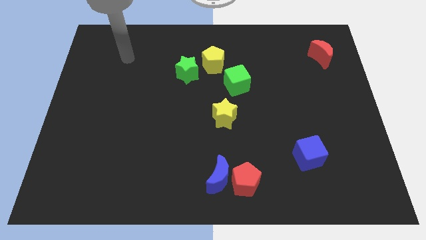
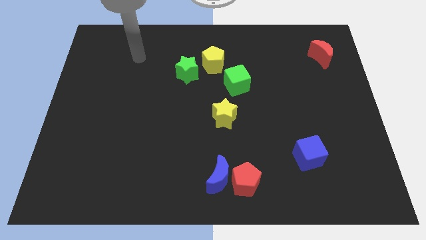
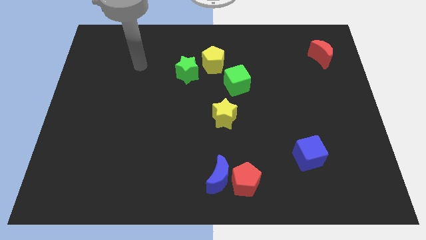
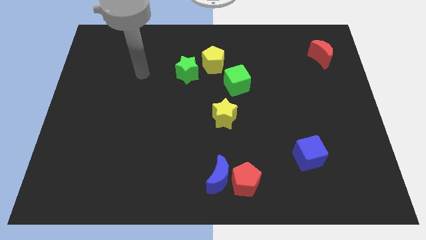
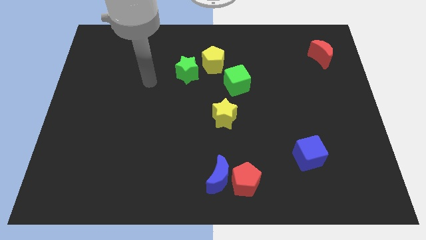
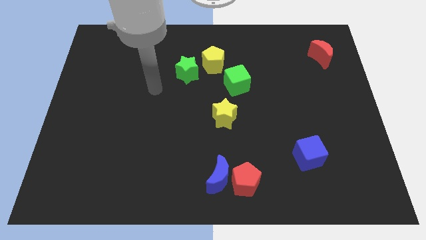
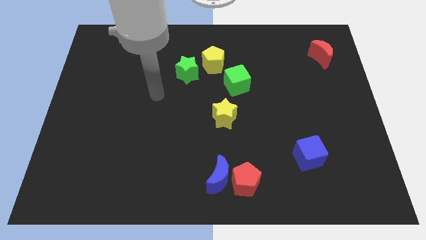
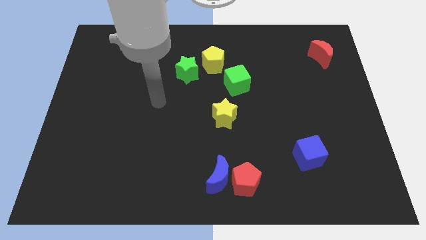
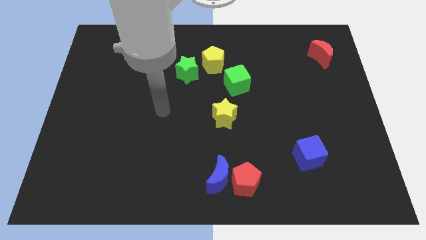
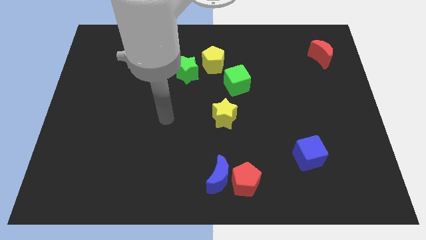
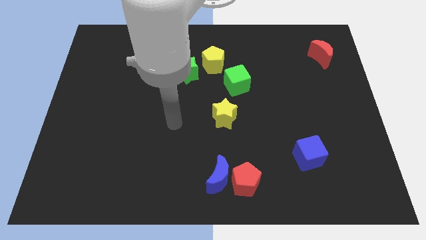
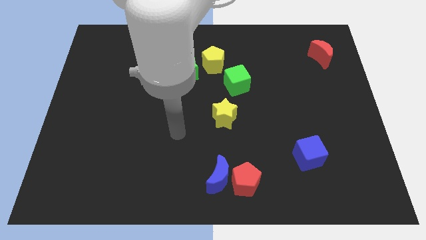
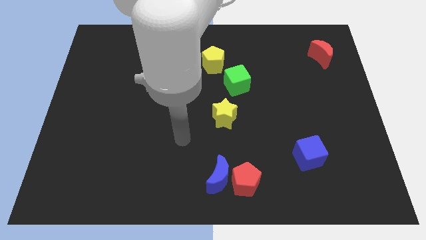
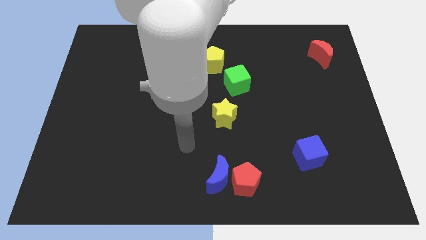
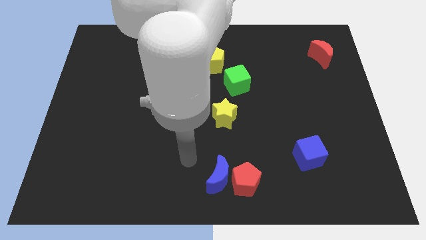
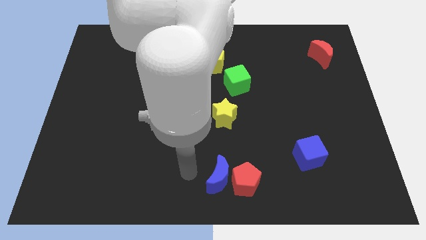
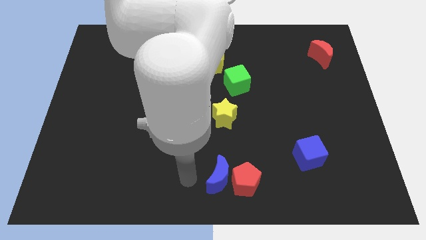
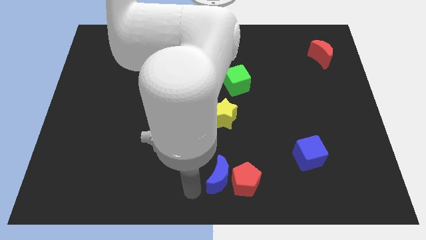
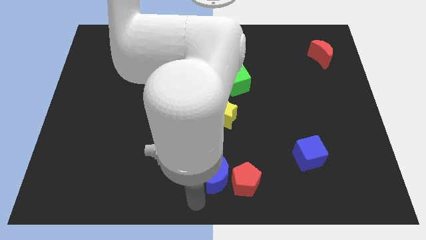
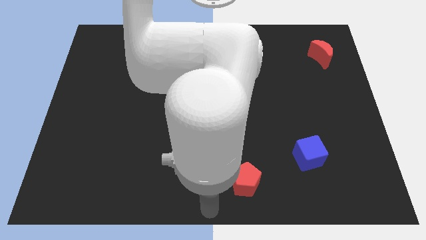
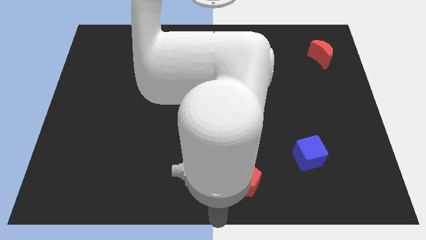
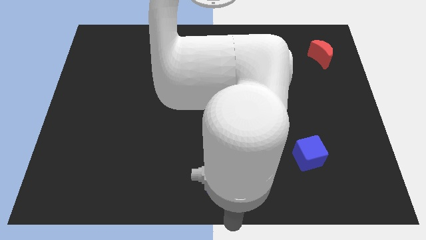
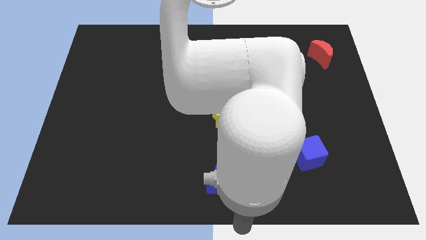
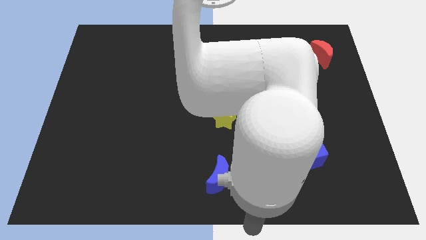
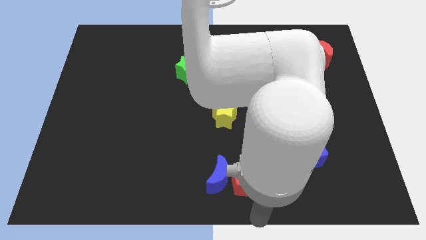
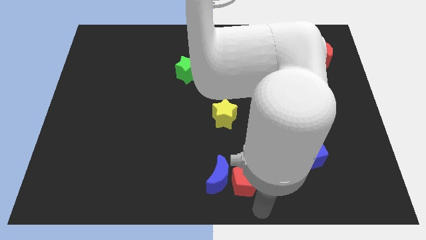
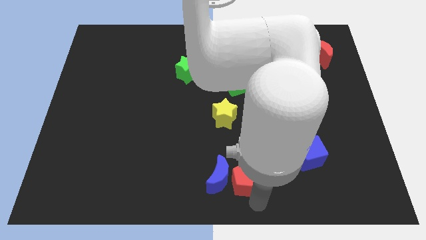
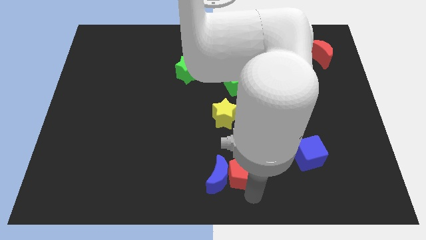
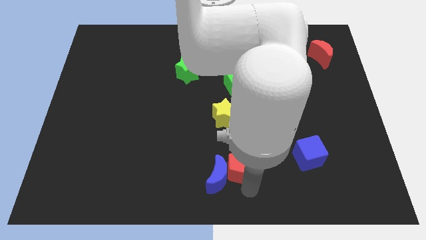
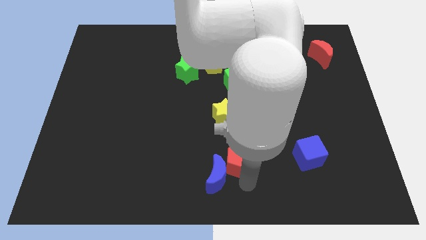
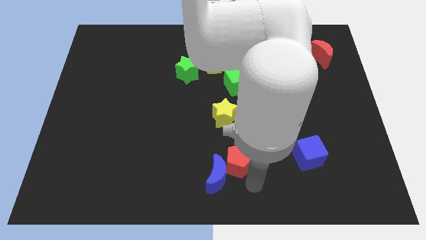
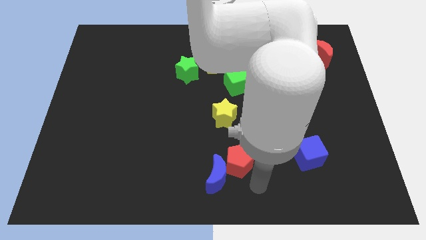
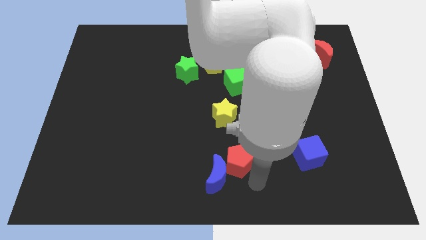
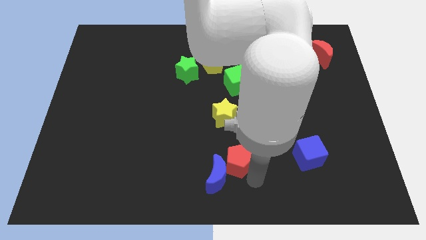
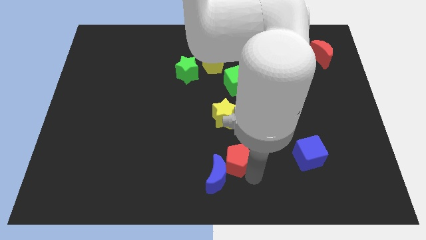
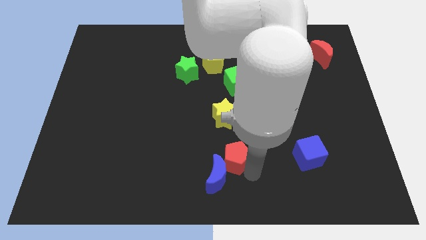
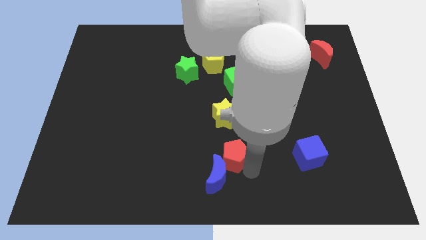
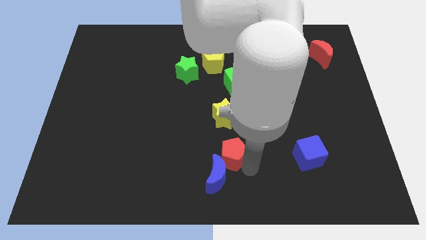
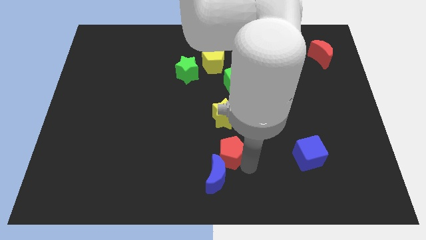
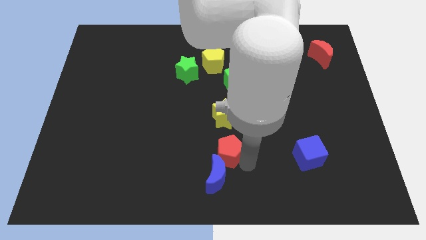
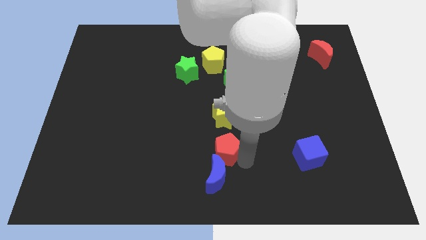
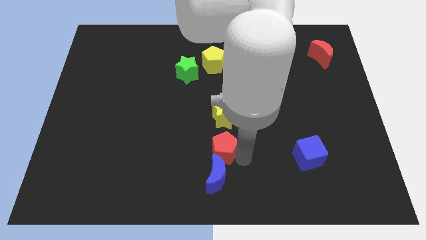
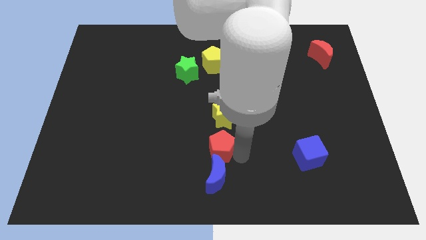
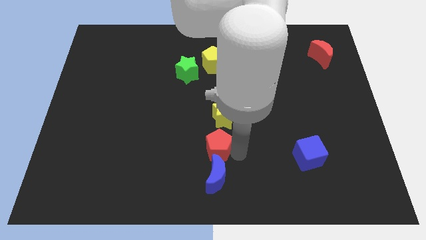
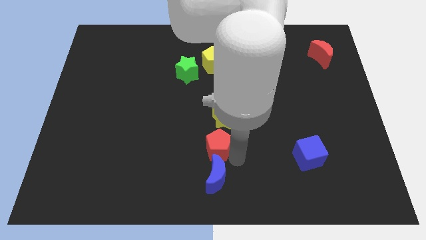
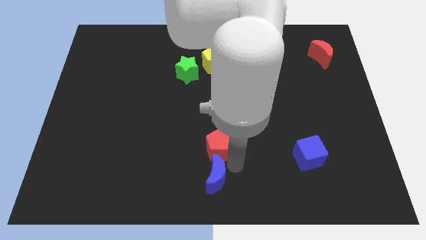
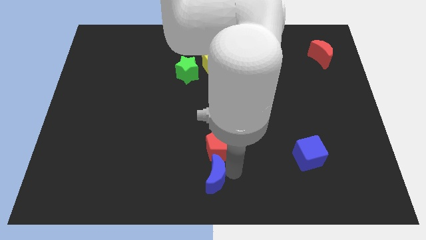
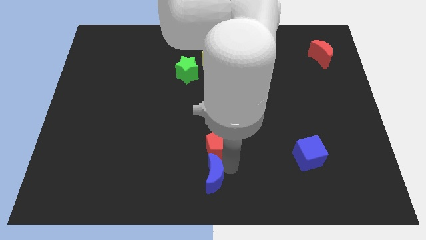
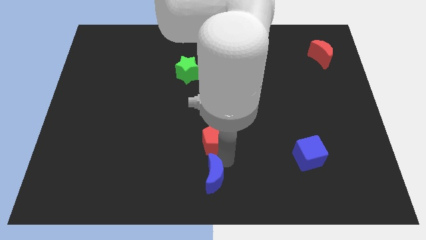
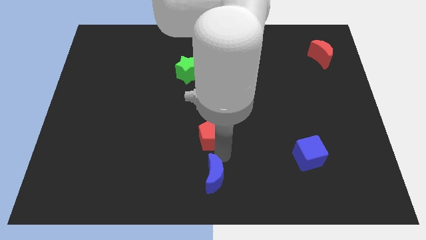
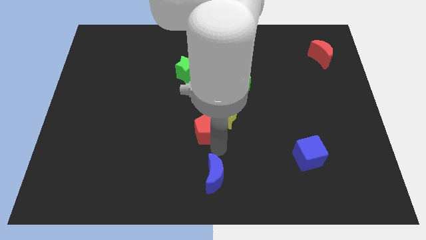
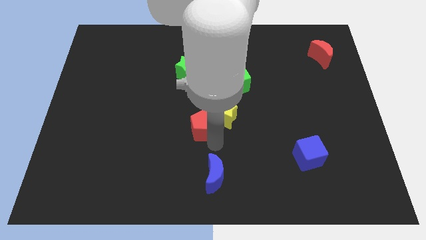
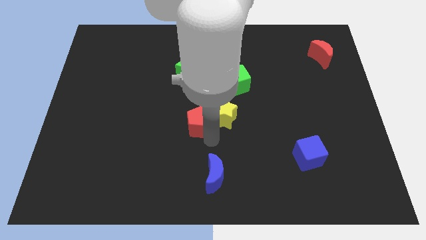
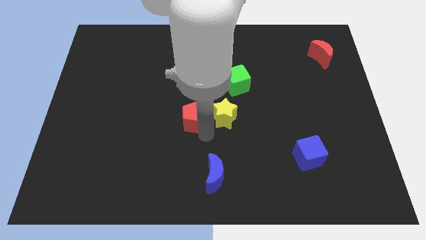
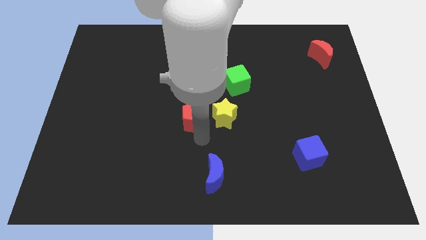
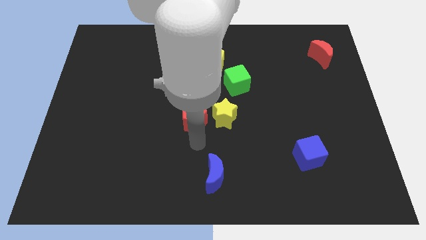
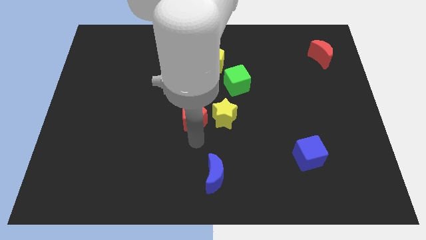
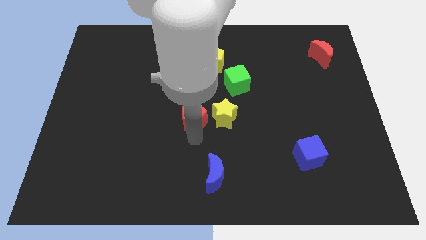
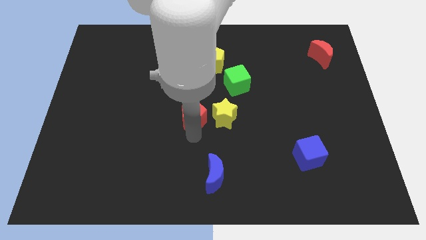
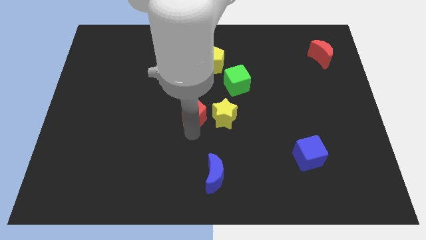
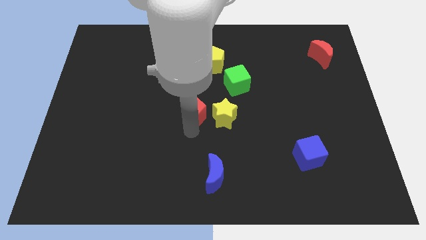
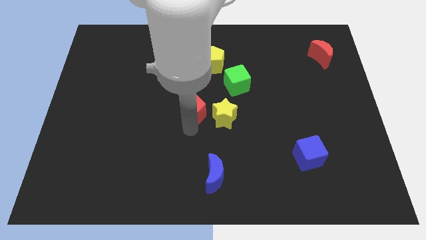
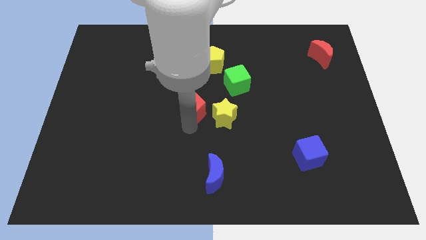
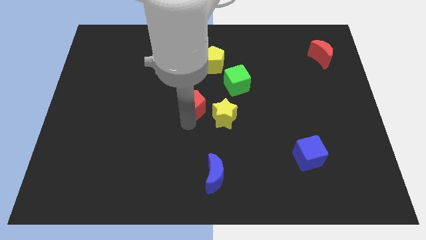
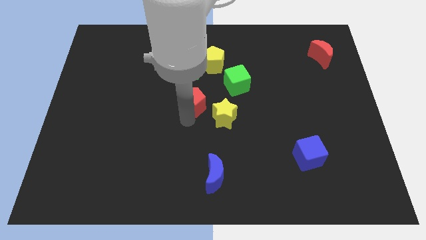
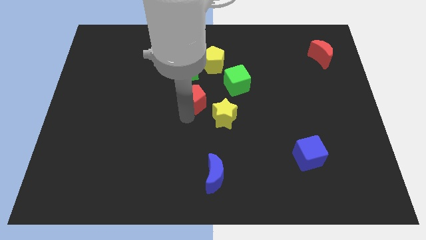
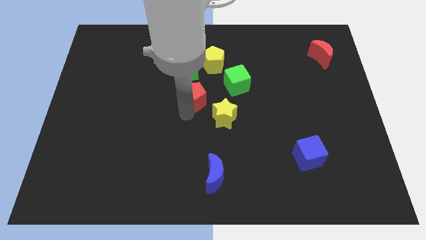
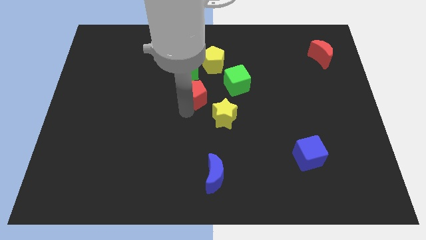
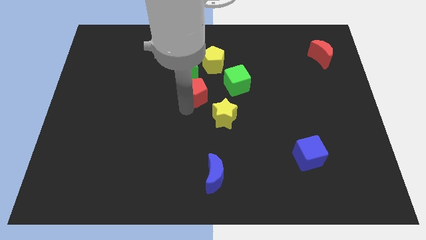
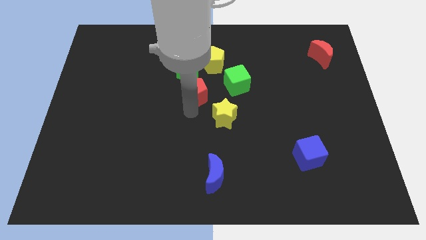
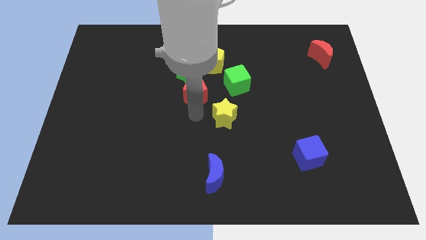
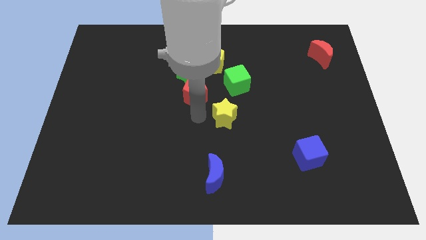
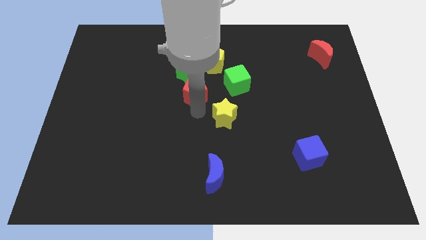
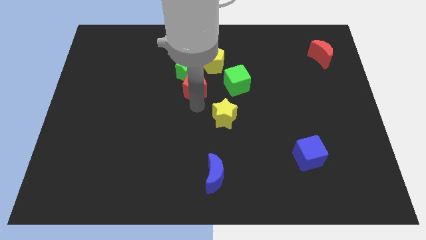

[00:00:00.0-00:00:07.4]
slide the red pentagon to the bottom left side of the yellow pentagon
